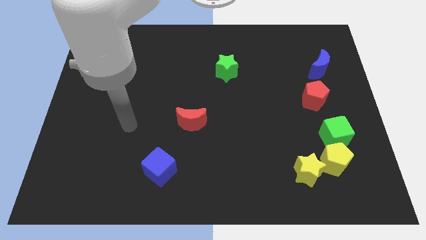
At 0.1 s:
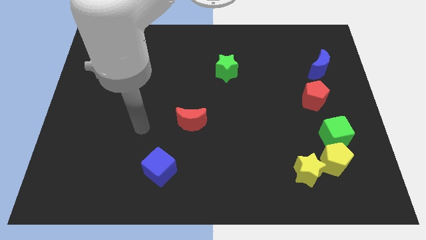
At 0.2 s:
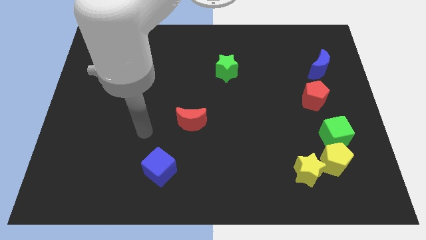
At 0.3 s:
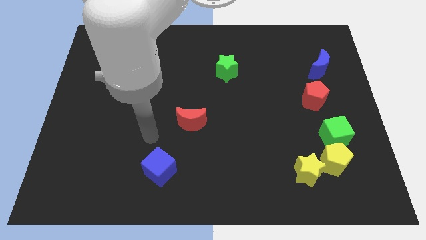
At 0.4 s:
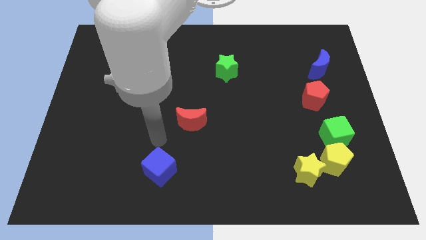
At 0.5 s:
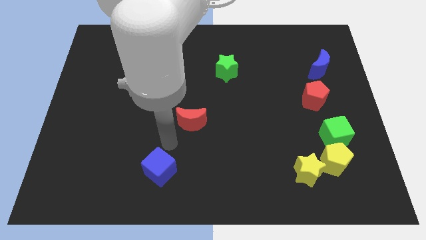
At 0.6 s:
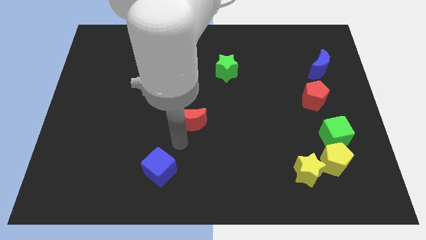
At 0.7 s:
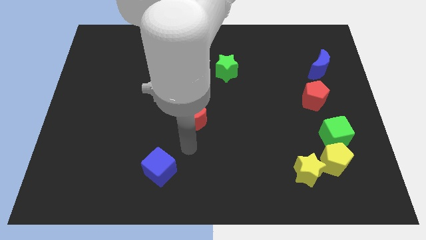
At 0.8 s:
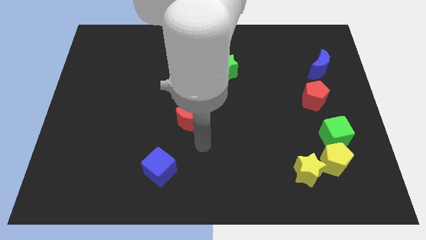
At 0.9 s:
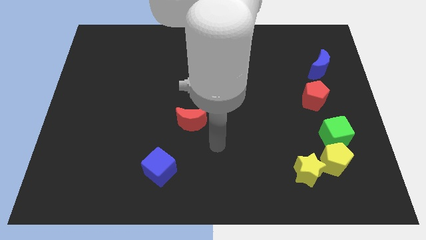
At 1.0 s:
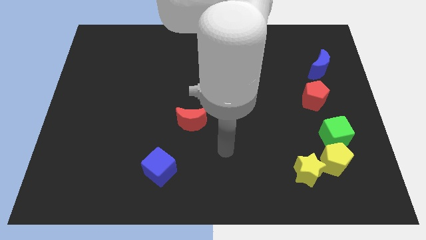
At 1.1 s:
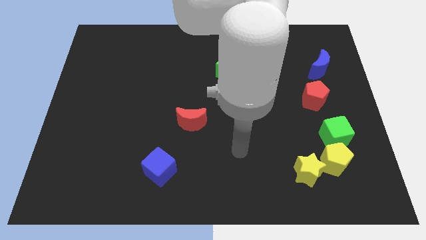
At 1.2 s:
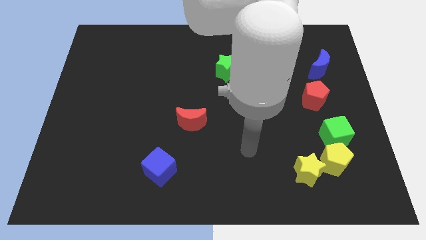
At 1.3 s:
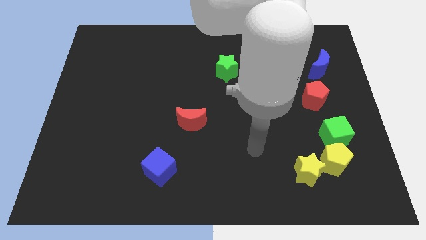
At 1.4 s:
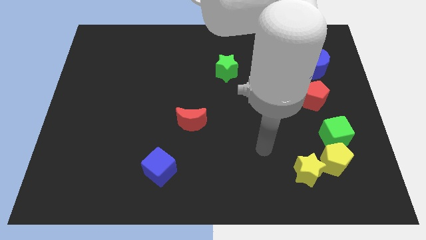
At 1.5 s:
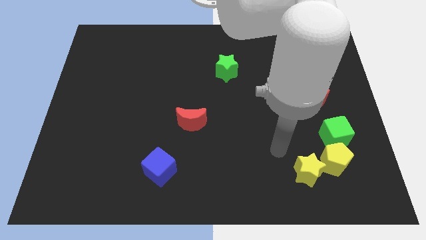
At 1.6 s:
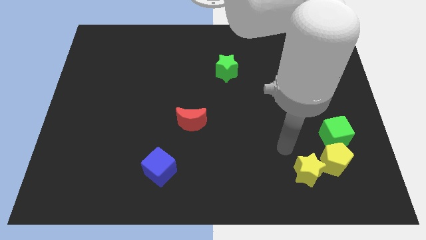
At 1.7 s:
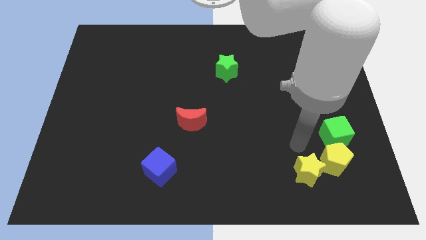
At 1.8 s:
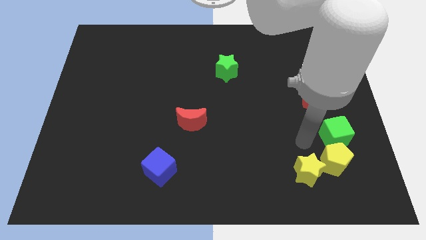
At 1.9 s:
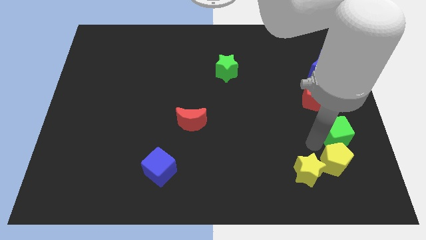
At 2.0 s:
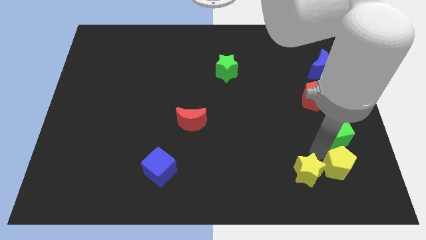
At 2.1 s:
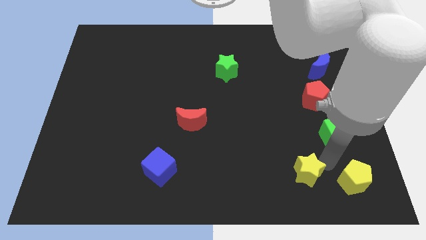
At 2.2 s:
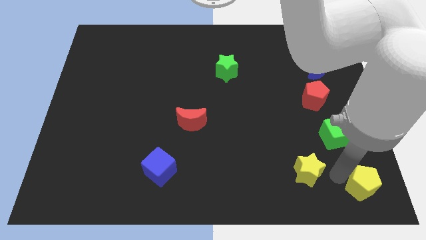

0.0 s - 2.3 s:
separate the yellow star from the yellow pentagon

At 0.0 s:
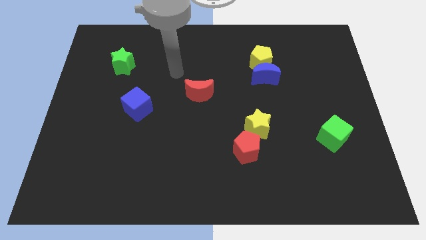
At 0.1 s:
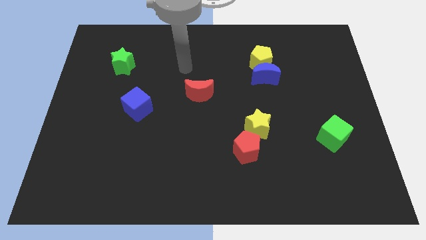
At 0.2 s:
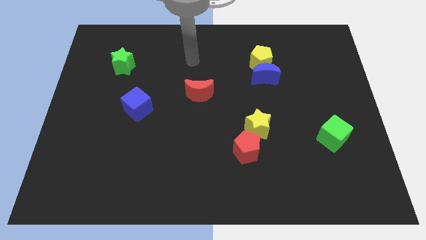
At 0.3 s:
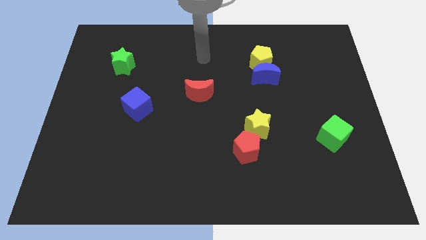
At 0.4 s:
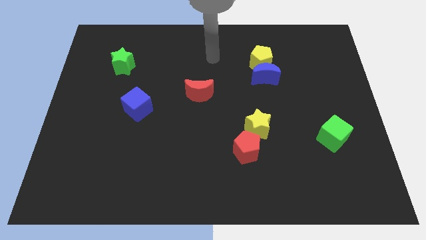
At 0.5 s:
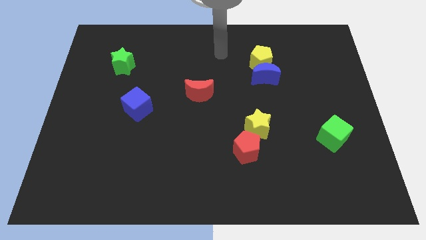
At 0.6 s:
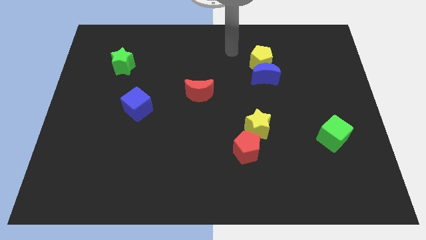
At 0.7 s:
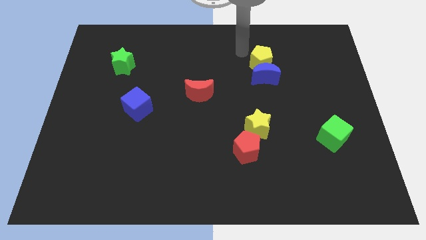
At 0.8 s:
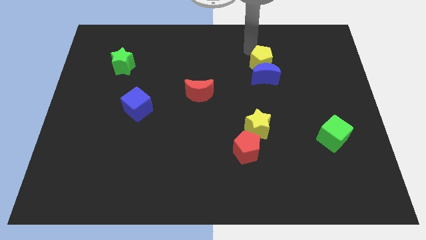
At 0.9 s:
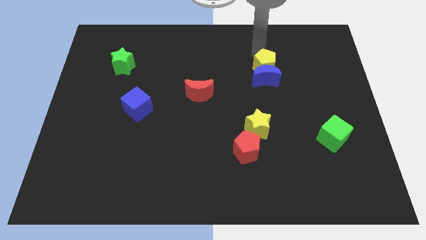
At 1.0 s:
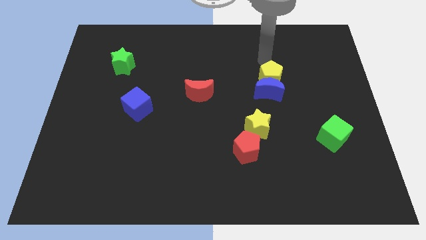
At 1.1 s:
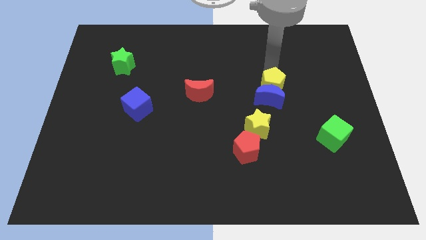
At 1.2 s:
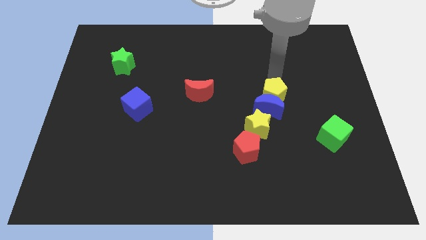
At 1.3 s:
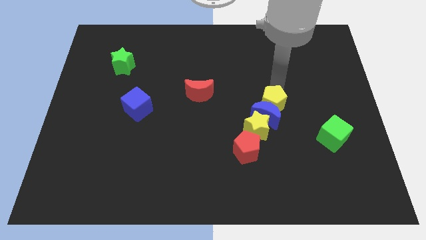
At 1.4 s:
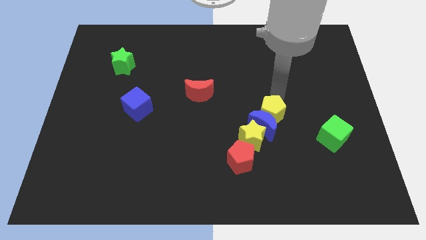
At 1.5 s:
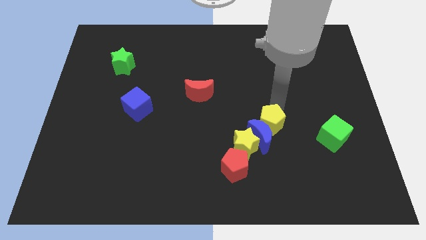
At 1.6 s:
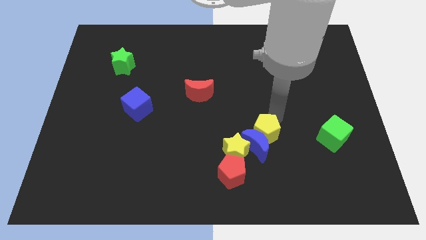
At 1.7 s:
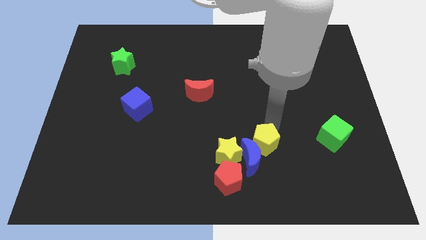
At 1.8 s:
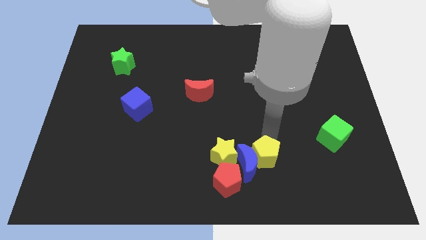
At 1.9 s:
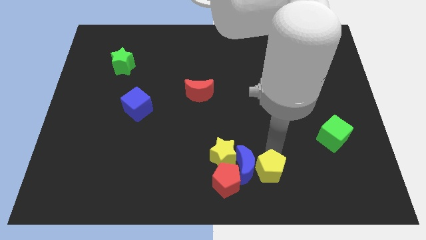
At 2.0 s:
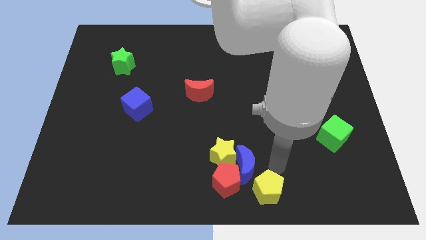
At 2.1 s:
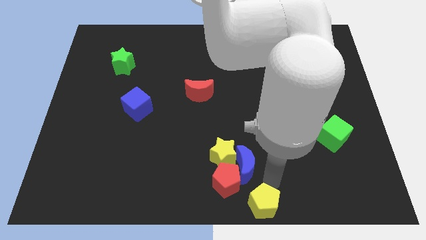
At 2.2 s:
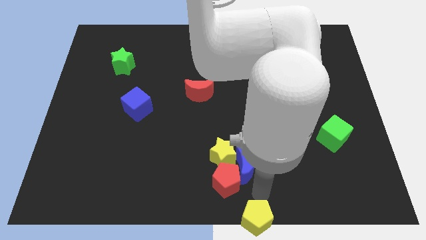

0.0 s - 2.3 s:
pull the blue moon apart from the yellow pentagon

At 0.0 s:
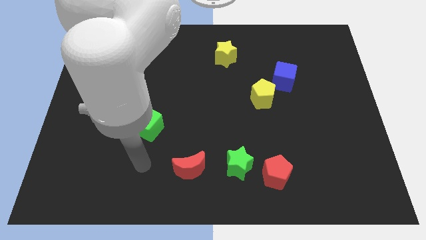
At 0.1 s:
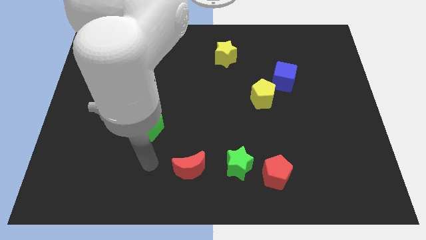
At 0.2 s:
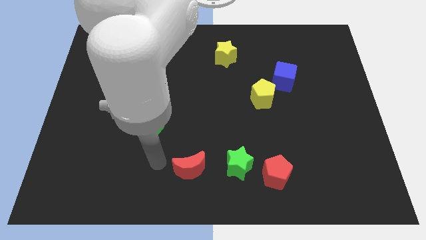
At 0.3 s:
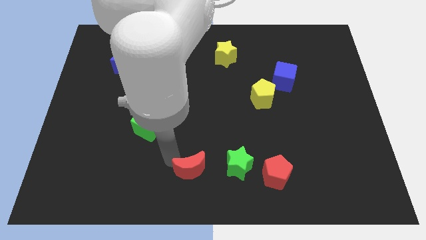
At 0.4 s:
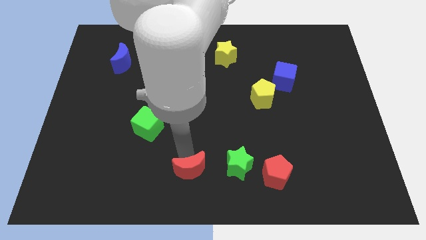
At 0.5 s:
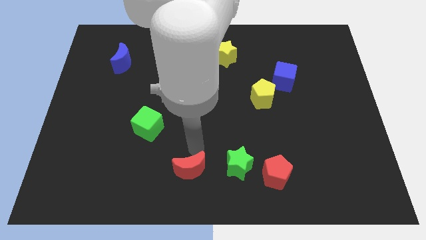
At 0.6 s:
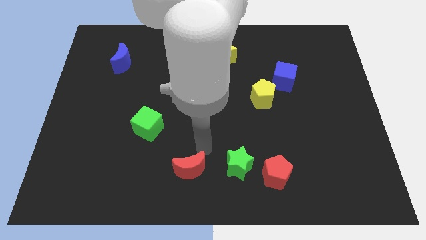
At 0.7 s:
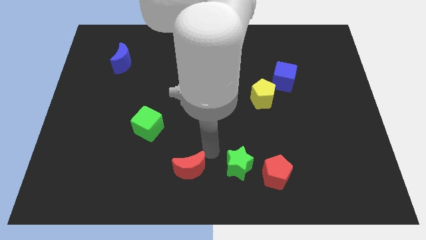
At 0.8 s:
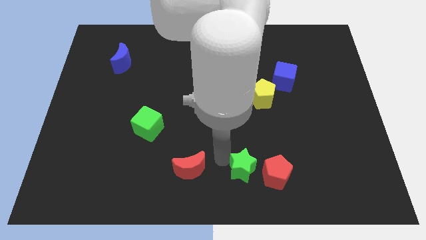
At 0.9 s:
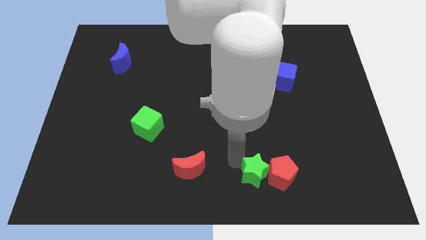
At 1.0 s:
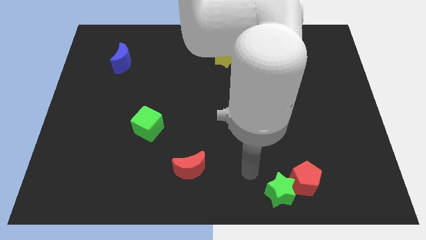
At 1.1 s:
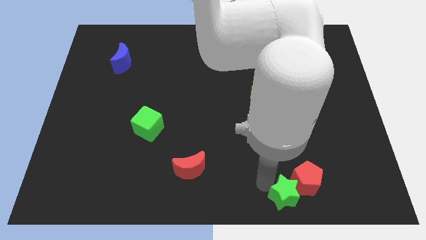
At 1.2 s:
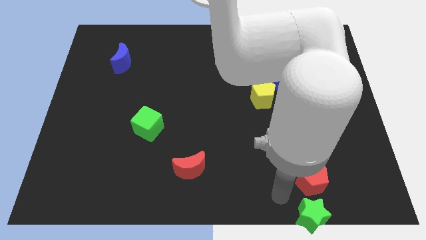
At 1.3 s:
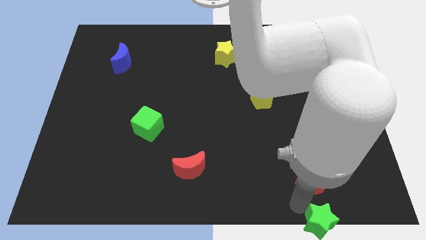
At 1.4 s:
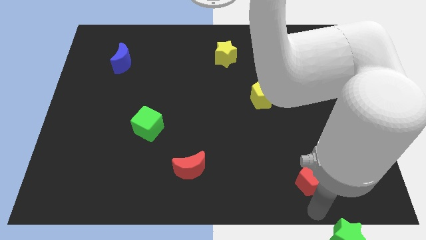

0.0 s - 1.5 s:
move the red pentagon away from the green star

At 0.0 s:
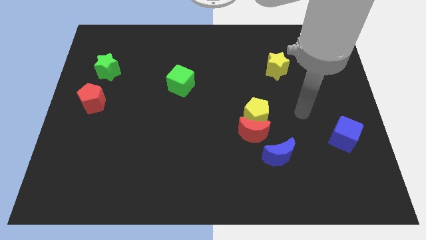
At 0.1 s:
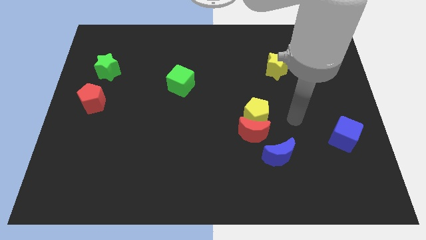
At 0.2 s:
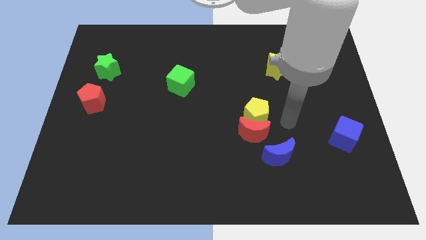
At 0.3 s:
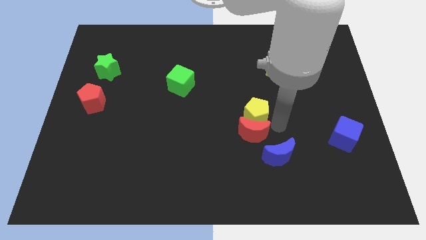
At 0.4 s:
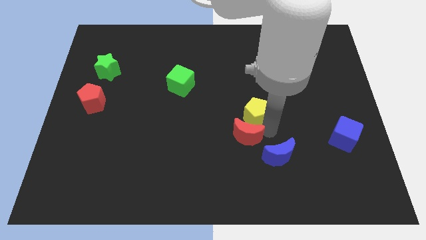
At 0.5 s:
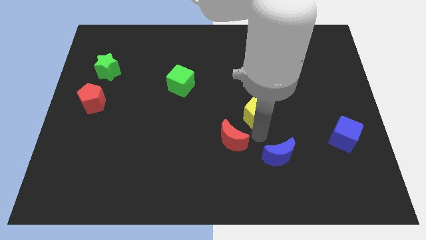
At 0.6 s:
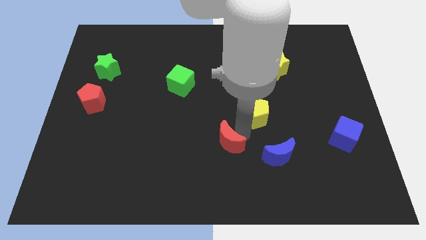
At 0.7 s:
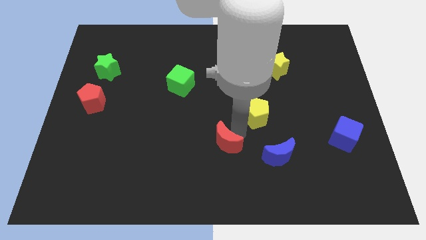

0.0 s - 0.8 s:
separate the yellow pentagon from the red moon

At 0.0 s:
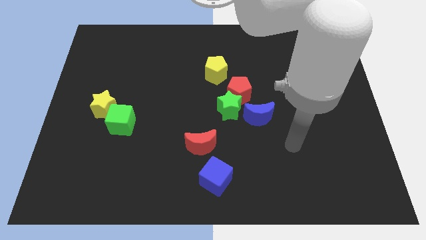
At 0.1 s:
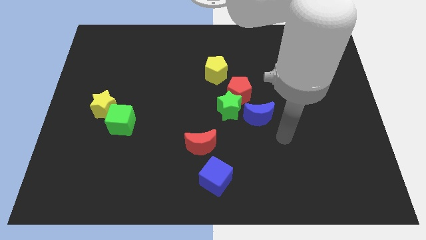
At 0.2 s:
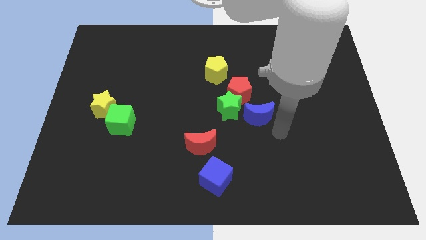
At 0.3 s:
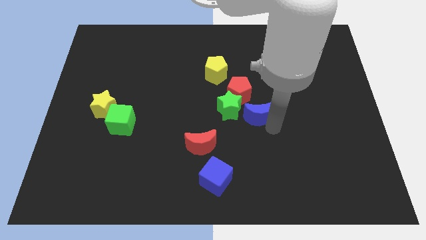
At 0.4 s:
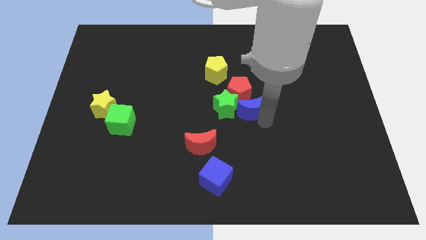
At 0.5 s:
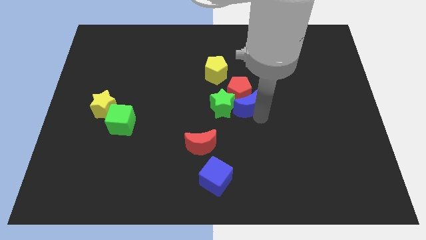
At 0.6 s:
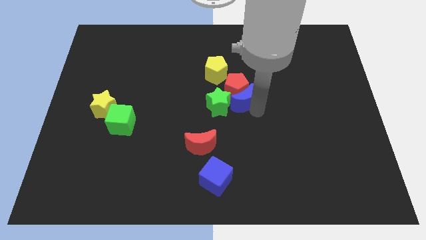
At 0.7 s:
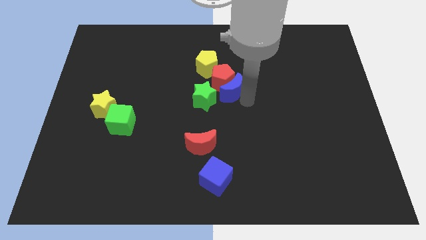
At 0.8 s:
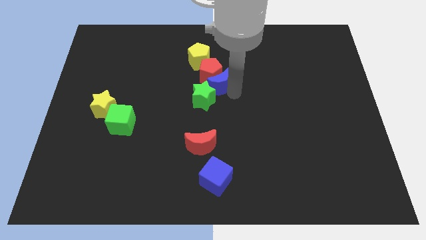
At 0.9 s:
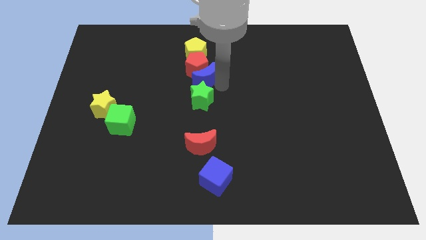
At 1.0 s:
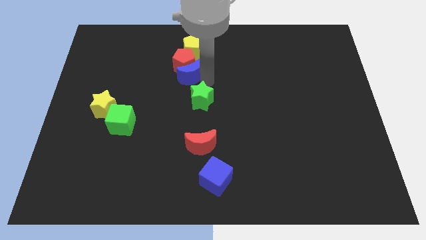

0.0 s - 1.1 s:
pull the green star apart from the red pentagon and blue moon

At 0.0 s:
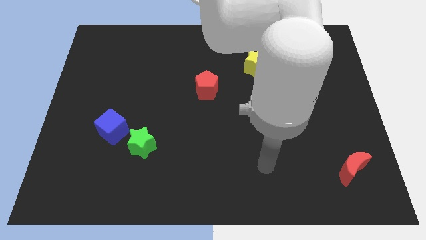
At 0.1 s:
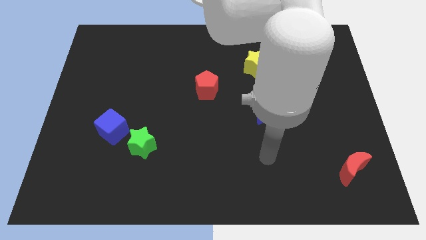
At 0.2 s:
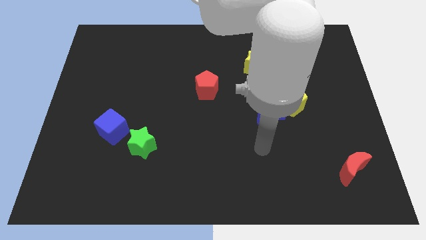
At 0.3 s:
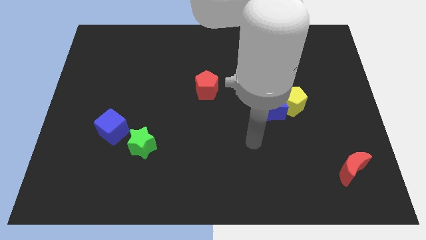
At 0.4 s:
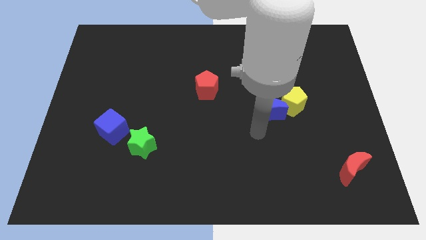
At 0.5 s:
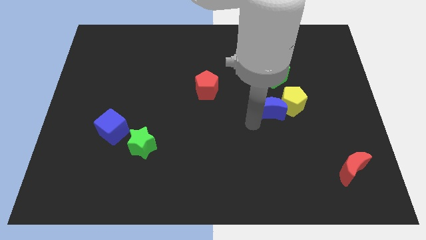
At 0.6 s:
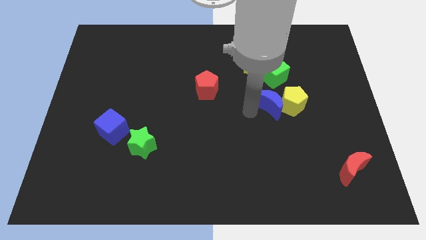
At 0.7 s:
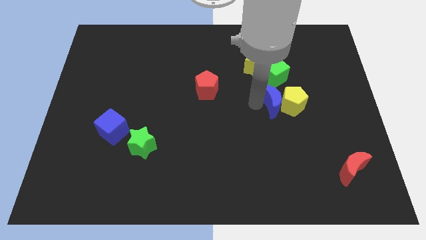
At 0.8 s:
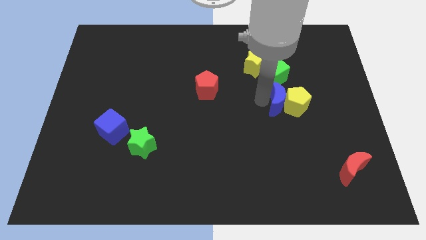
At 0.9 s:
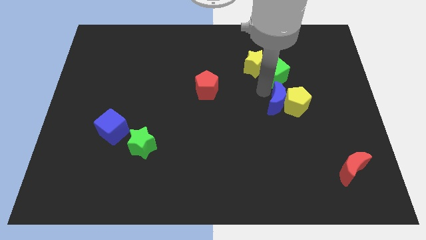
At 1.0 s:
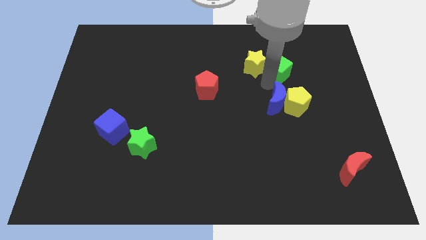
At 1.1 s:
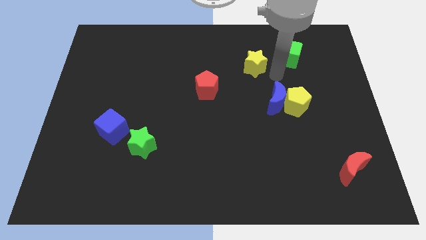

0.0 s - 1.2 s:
move the yellow star away from the green cube
